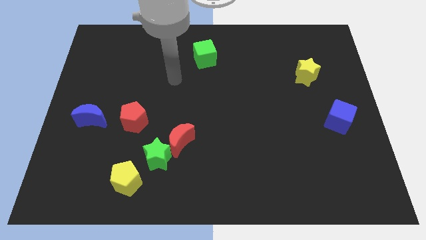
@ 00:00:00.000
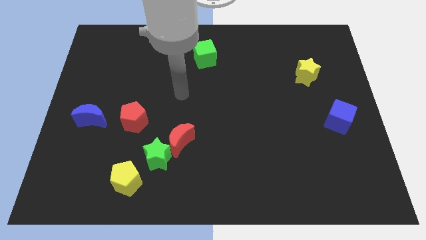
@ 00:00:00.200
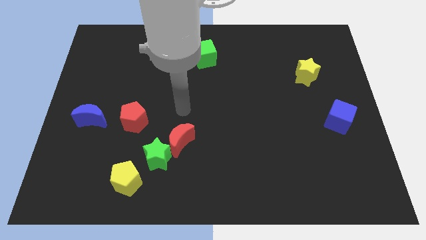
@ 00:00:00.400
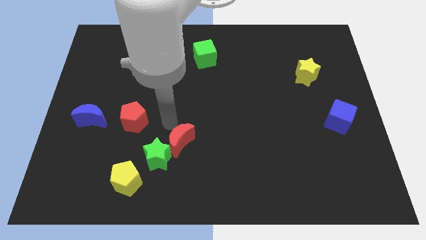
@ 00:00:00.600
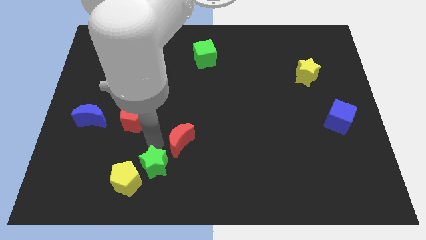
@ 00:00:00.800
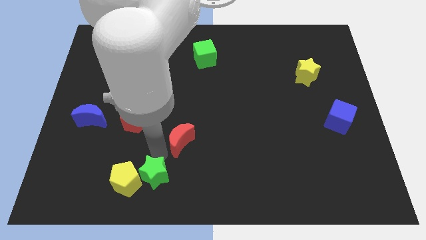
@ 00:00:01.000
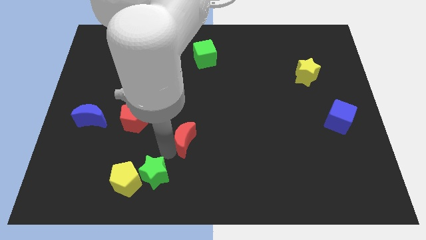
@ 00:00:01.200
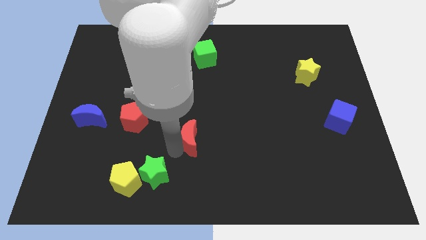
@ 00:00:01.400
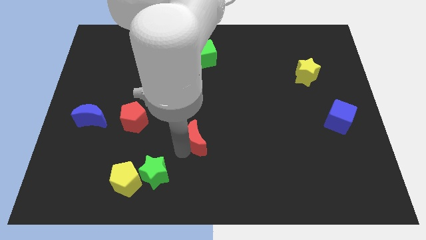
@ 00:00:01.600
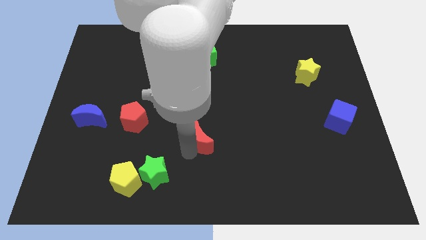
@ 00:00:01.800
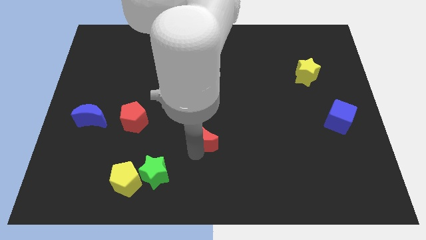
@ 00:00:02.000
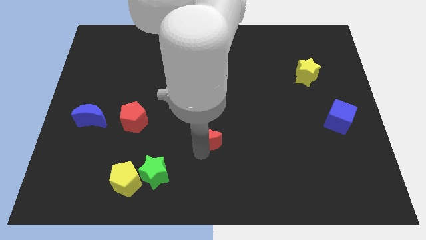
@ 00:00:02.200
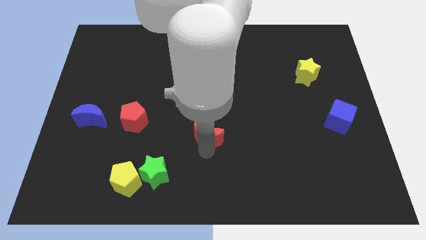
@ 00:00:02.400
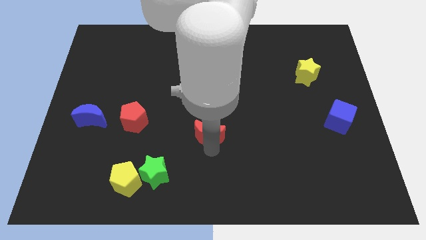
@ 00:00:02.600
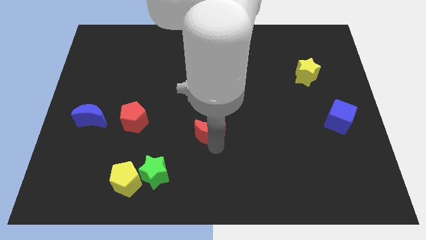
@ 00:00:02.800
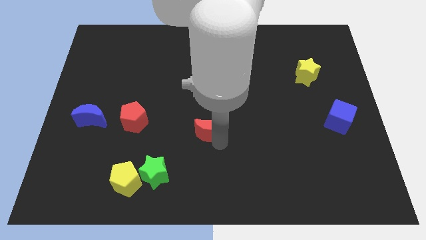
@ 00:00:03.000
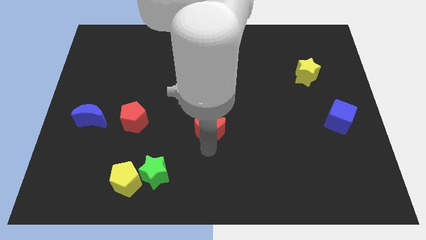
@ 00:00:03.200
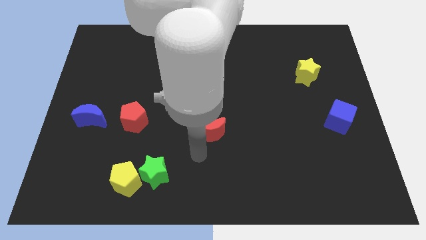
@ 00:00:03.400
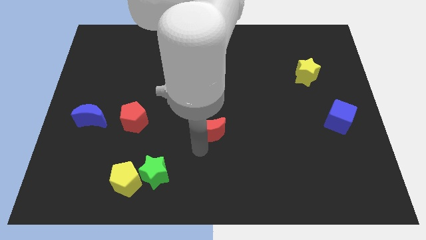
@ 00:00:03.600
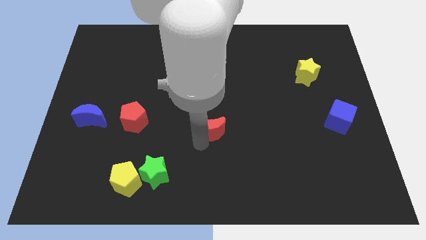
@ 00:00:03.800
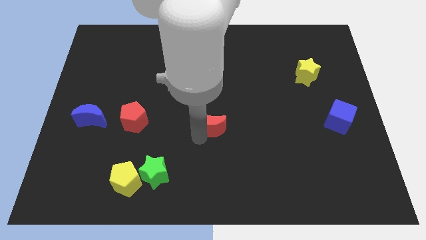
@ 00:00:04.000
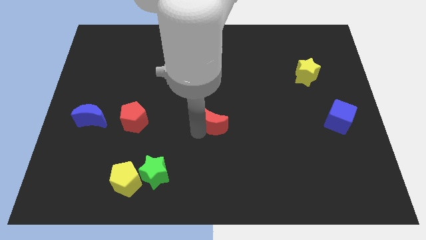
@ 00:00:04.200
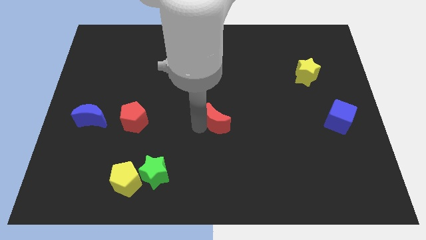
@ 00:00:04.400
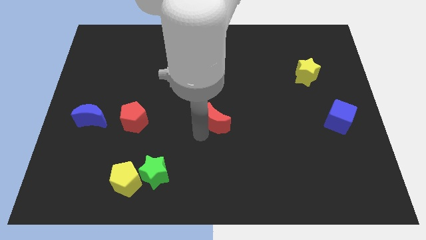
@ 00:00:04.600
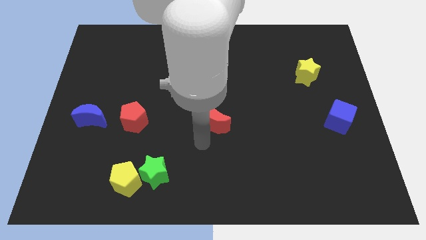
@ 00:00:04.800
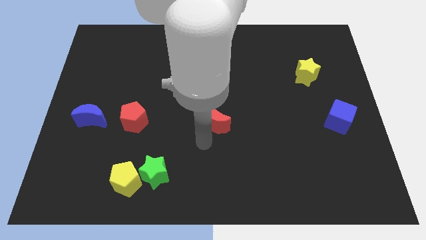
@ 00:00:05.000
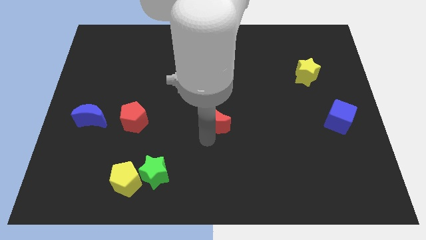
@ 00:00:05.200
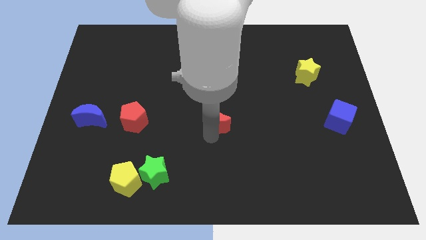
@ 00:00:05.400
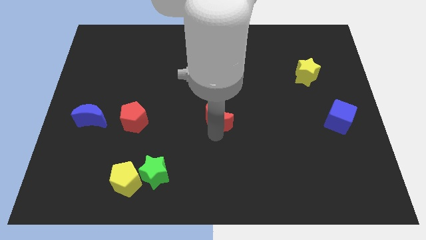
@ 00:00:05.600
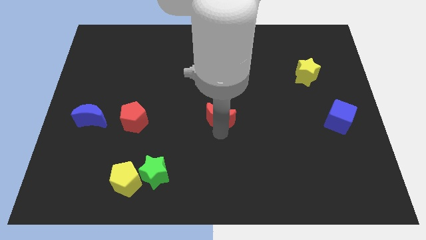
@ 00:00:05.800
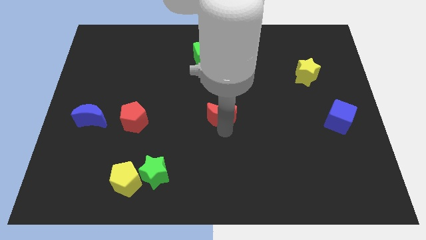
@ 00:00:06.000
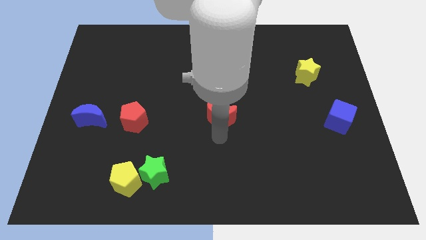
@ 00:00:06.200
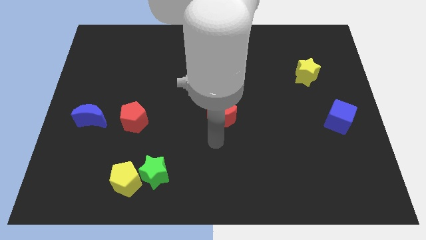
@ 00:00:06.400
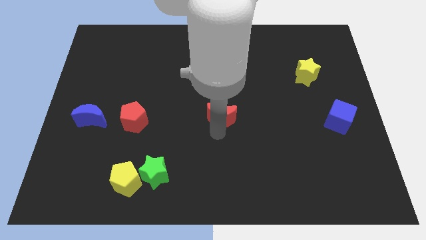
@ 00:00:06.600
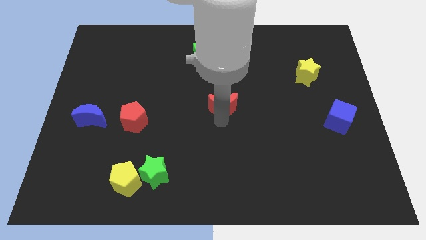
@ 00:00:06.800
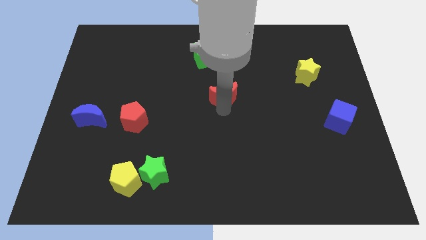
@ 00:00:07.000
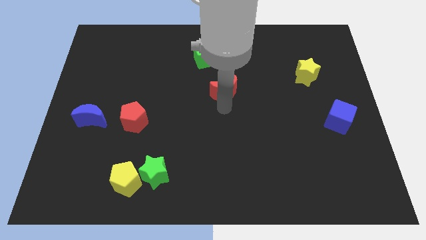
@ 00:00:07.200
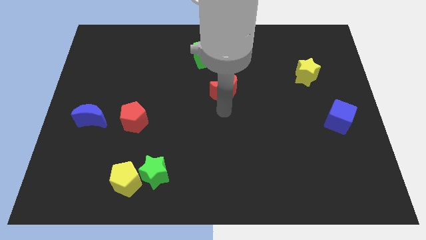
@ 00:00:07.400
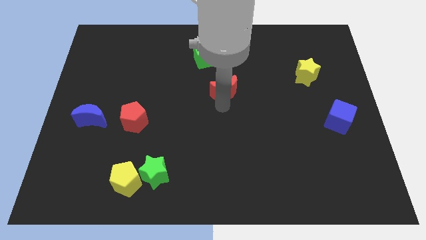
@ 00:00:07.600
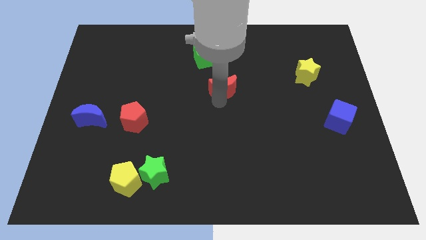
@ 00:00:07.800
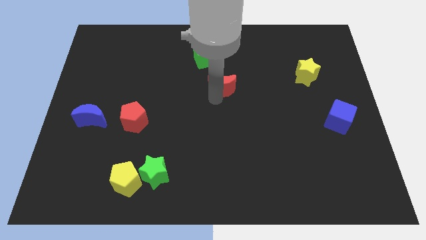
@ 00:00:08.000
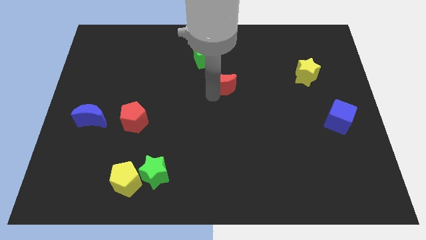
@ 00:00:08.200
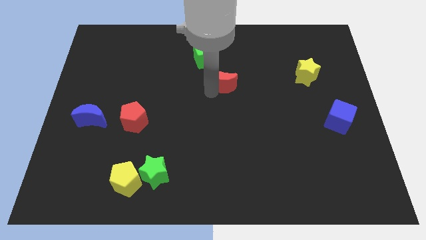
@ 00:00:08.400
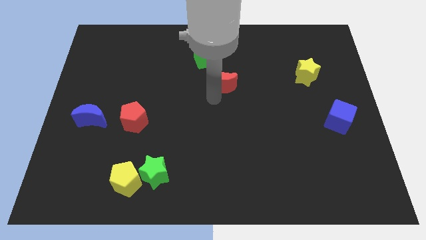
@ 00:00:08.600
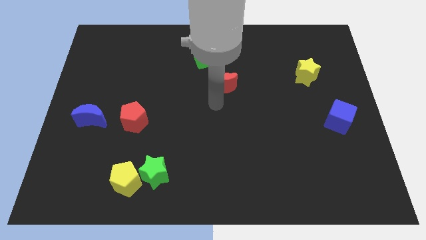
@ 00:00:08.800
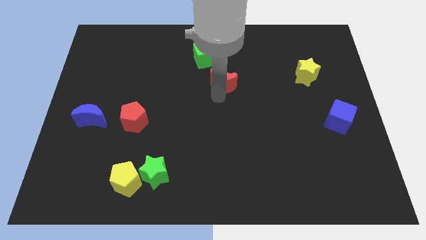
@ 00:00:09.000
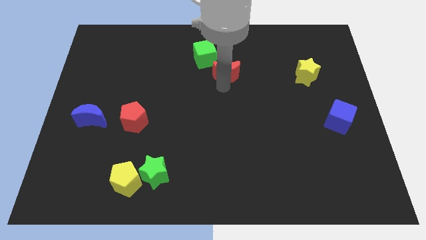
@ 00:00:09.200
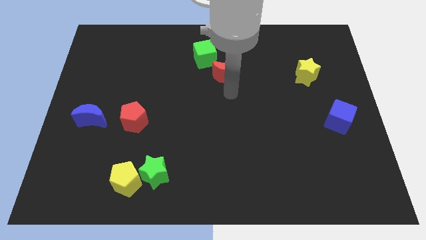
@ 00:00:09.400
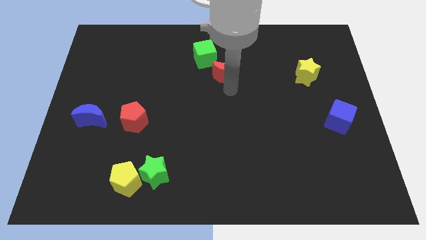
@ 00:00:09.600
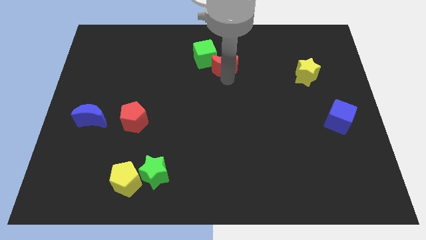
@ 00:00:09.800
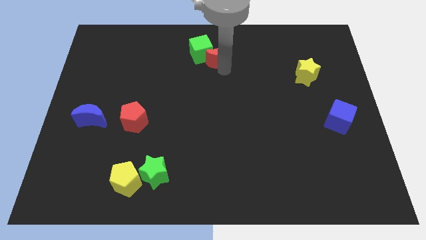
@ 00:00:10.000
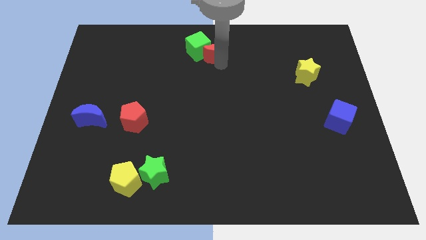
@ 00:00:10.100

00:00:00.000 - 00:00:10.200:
move the red moon to the towards your base

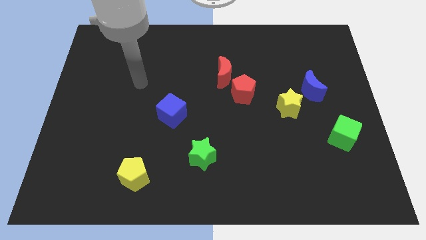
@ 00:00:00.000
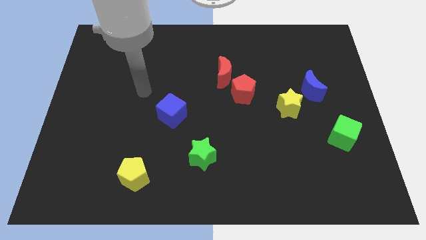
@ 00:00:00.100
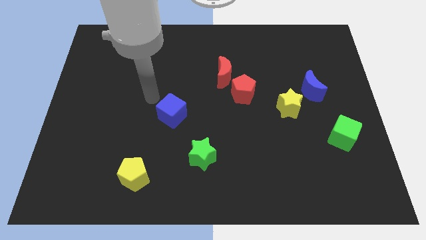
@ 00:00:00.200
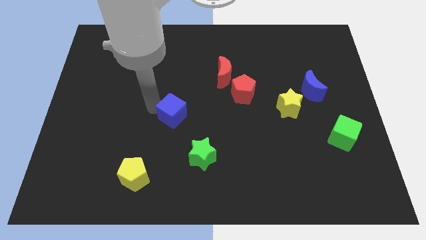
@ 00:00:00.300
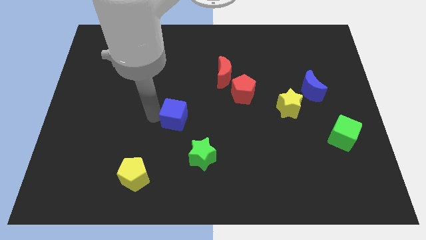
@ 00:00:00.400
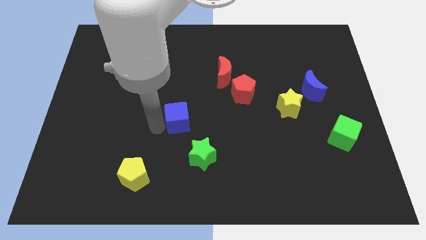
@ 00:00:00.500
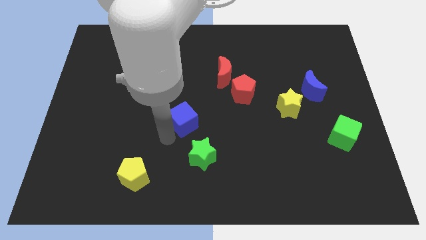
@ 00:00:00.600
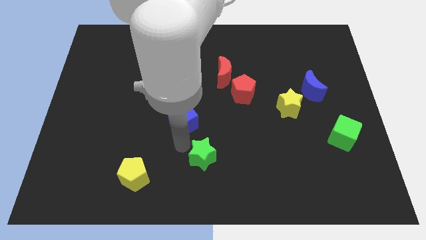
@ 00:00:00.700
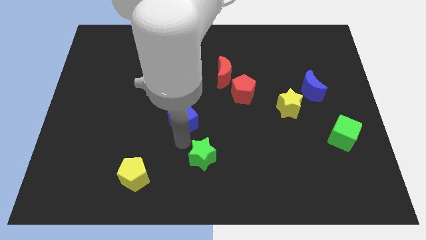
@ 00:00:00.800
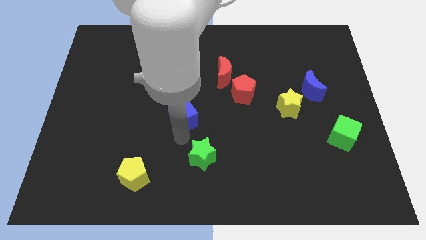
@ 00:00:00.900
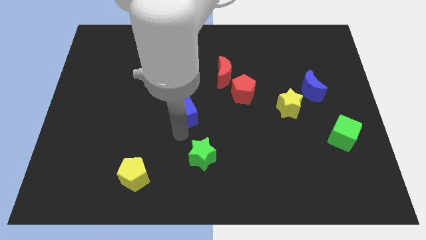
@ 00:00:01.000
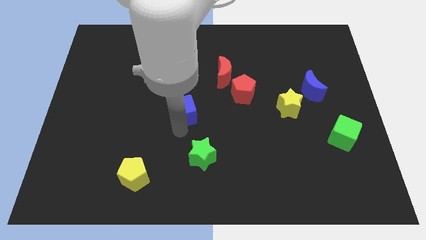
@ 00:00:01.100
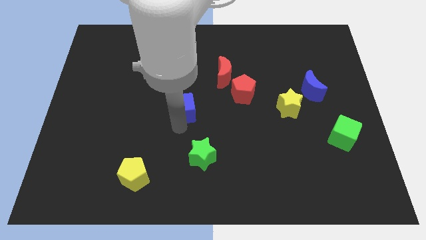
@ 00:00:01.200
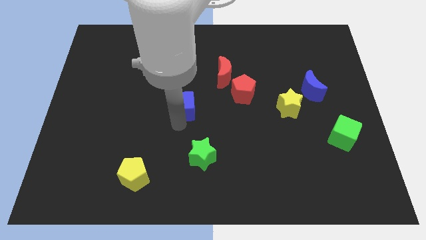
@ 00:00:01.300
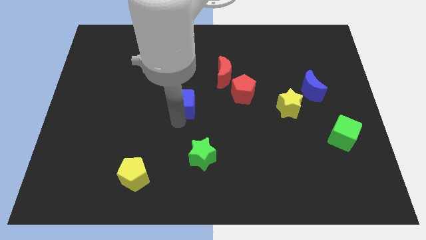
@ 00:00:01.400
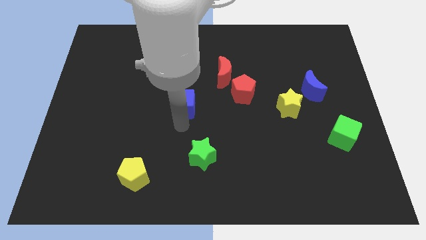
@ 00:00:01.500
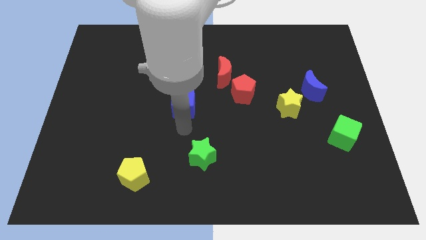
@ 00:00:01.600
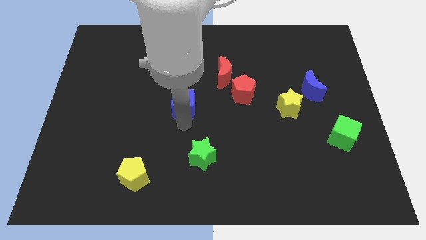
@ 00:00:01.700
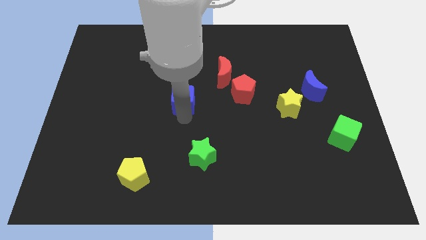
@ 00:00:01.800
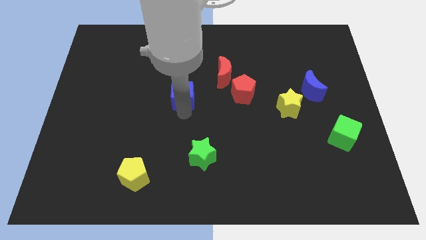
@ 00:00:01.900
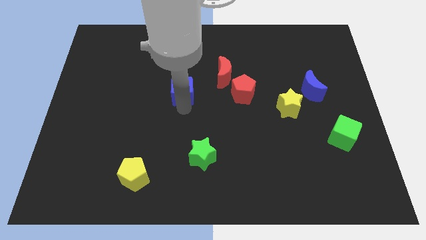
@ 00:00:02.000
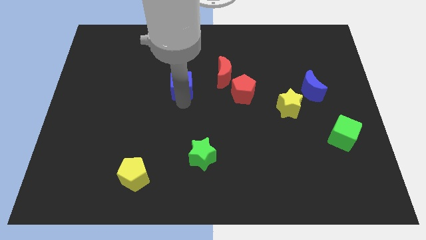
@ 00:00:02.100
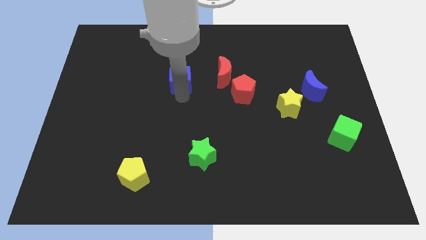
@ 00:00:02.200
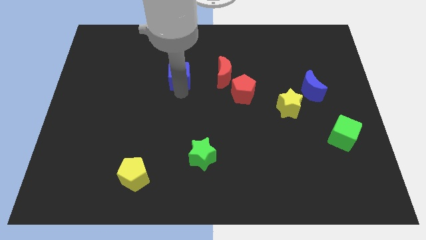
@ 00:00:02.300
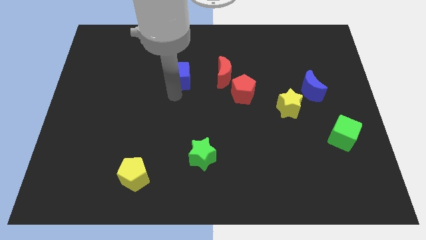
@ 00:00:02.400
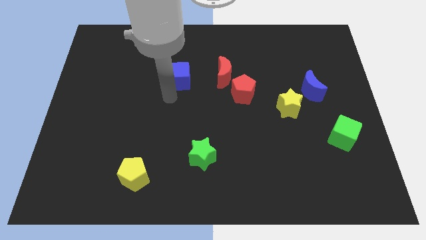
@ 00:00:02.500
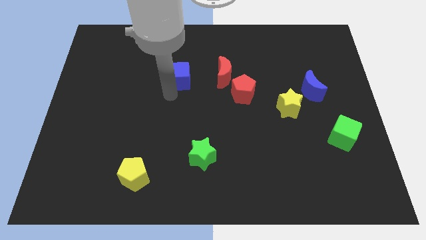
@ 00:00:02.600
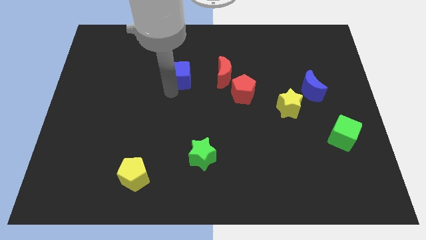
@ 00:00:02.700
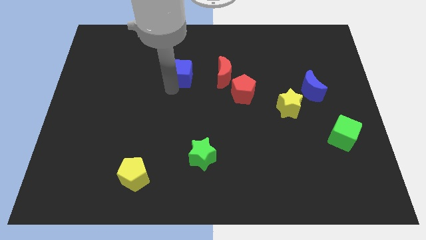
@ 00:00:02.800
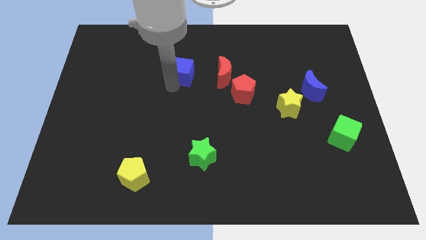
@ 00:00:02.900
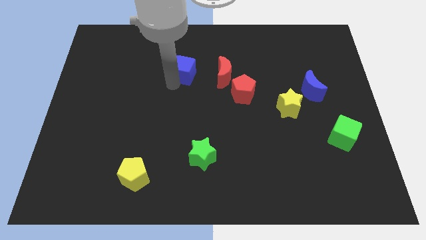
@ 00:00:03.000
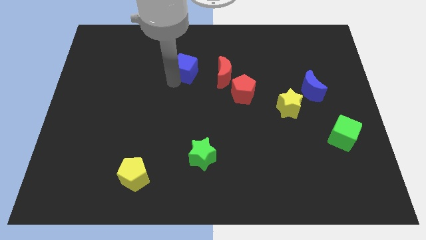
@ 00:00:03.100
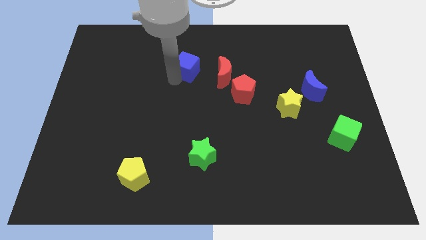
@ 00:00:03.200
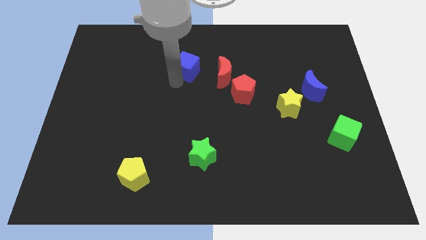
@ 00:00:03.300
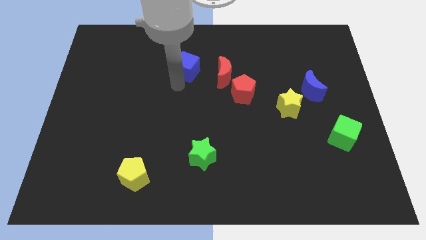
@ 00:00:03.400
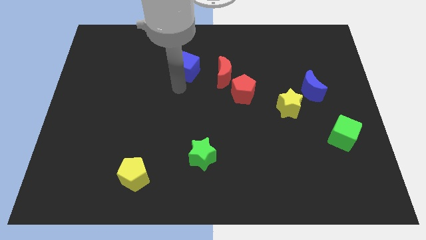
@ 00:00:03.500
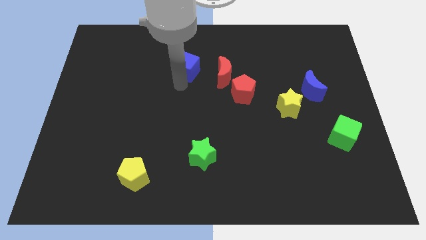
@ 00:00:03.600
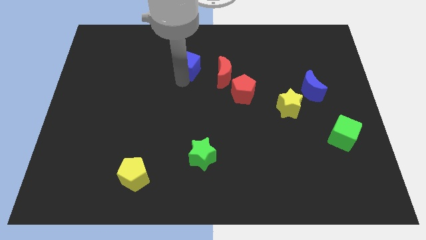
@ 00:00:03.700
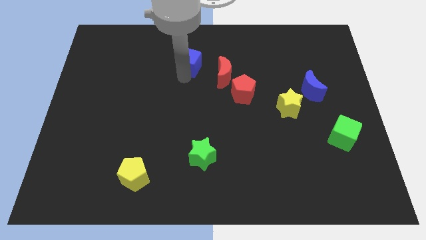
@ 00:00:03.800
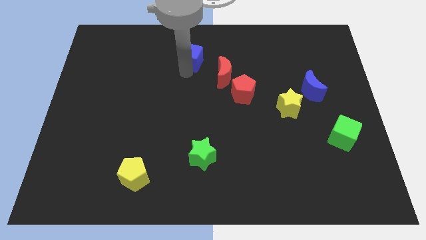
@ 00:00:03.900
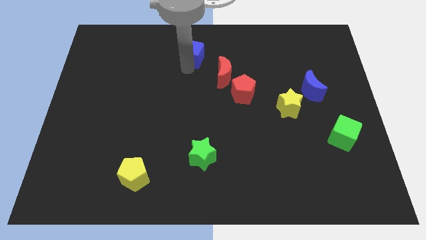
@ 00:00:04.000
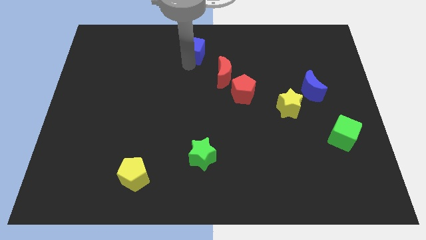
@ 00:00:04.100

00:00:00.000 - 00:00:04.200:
slide the blue cube to the towards your base
